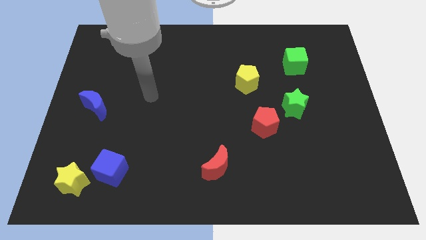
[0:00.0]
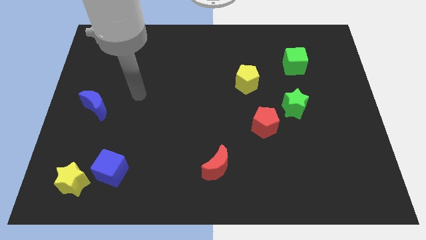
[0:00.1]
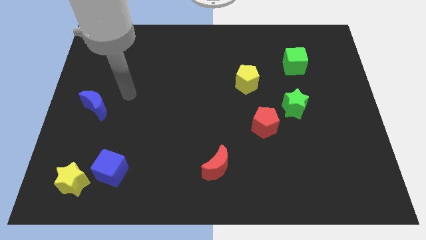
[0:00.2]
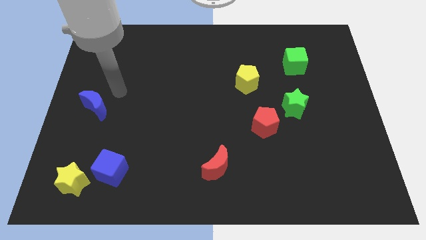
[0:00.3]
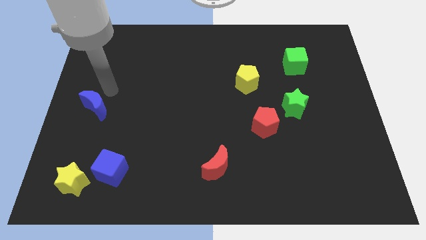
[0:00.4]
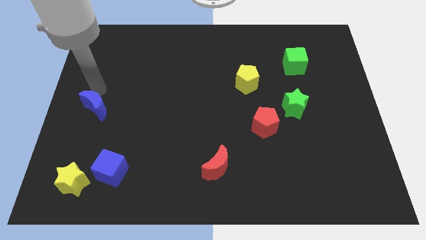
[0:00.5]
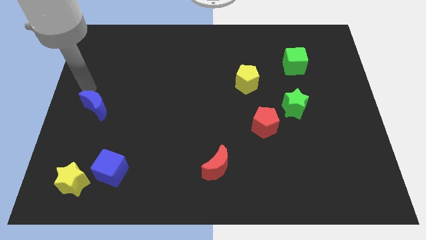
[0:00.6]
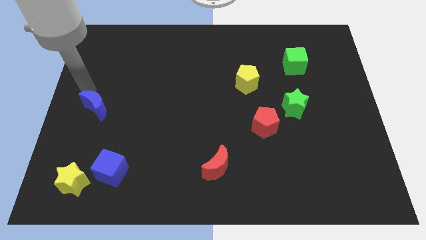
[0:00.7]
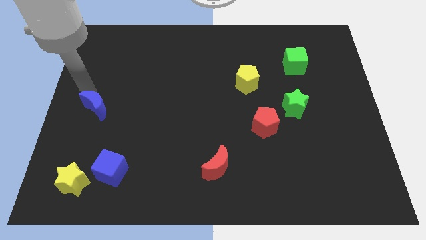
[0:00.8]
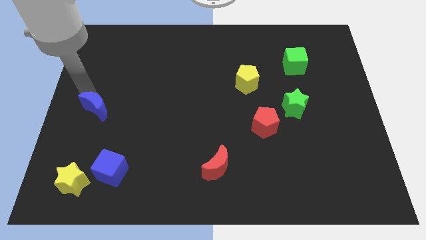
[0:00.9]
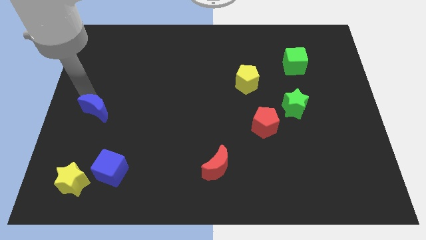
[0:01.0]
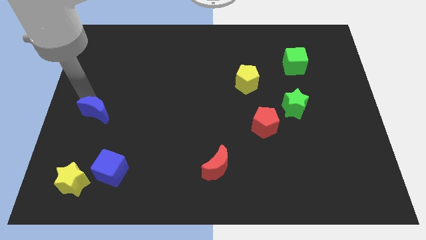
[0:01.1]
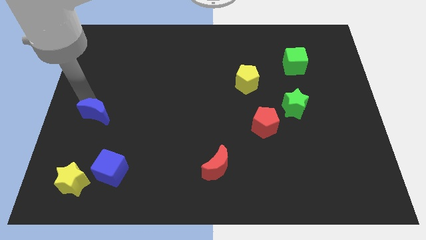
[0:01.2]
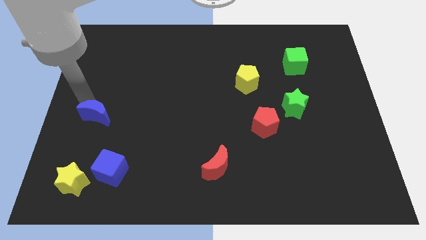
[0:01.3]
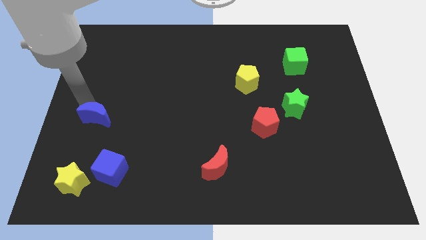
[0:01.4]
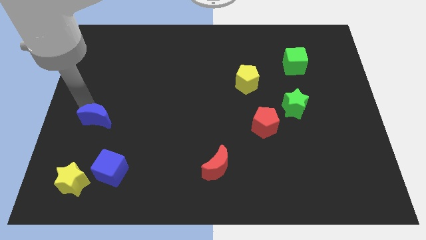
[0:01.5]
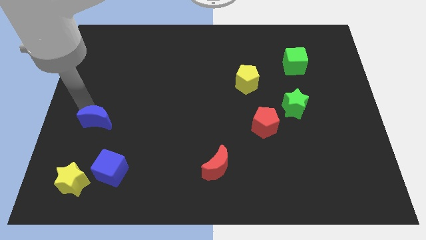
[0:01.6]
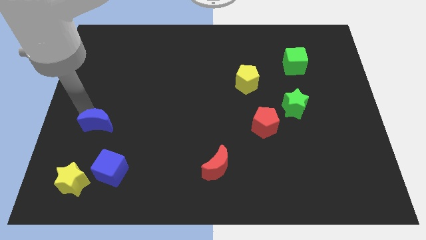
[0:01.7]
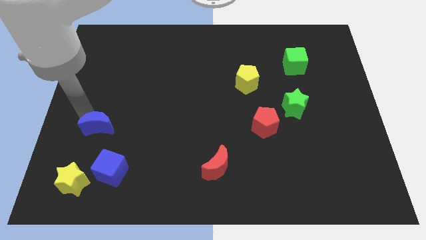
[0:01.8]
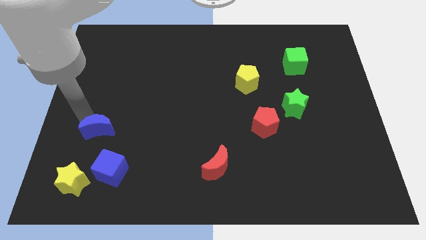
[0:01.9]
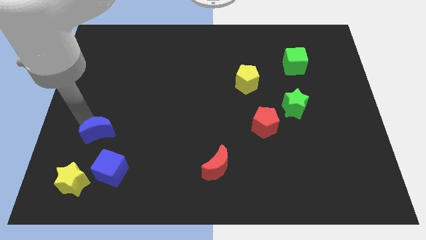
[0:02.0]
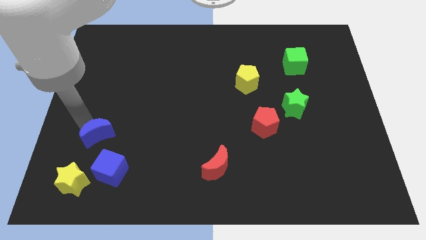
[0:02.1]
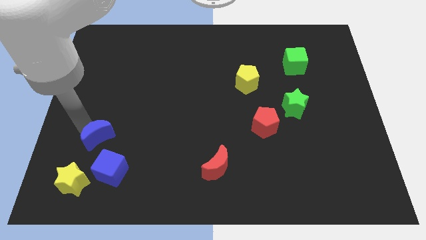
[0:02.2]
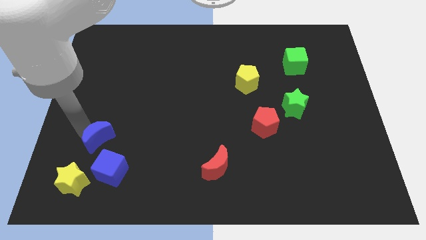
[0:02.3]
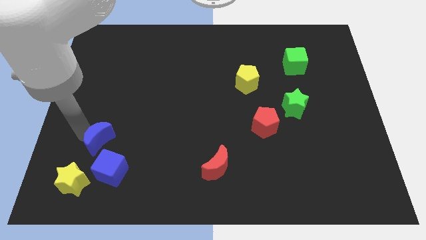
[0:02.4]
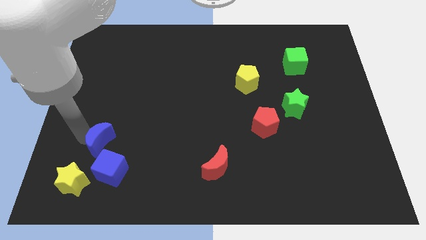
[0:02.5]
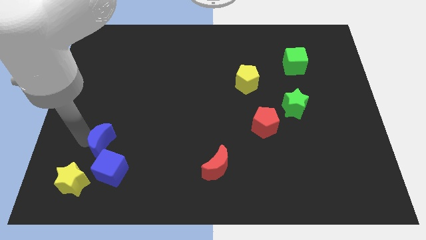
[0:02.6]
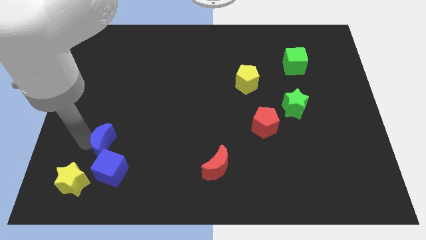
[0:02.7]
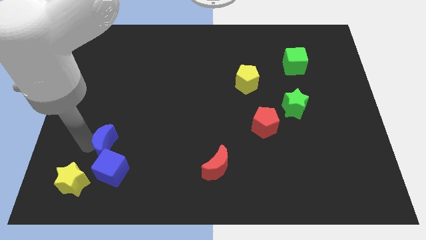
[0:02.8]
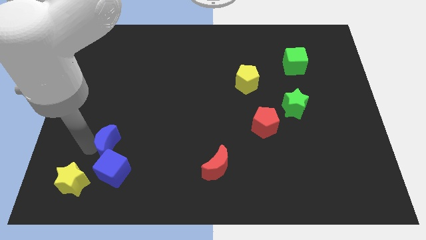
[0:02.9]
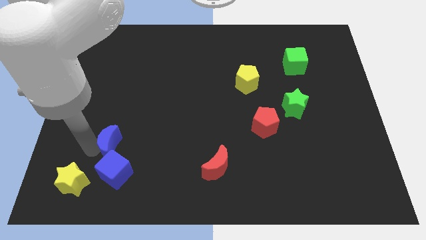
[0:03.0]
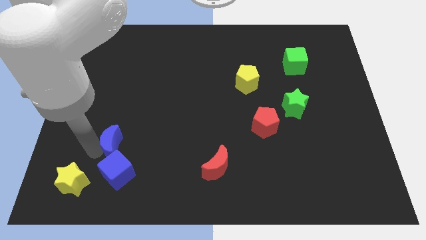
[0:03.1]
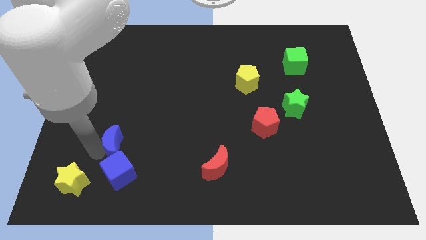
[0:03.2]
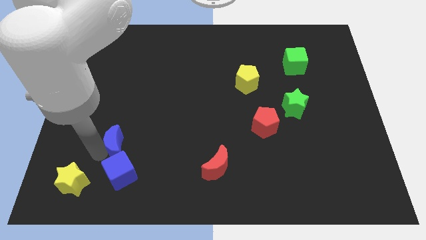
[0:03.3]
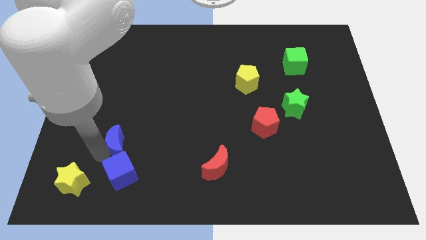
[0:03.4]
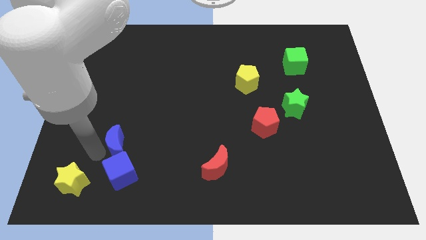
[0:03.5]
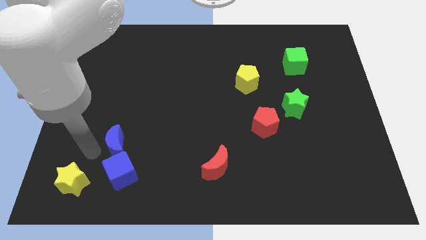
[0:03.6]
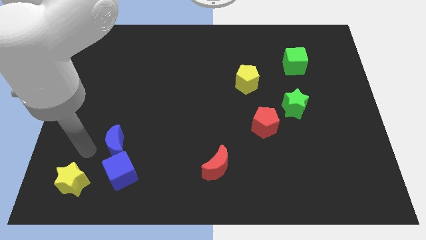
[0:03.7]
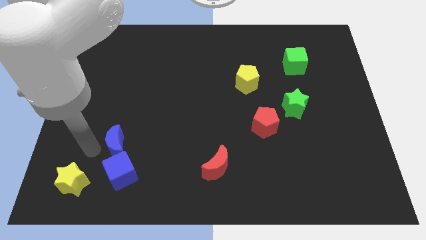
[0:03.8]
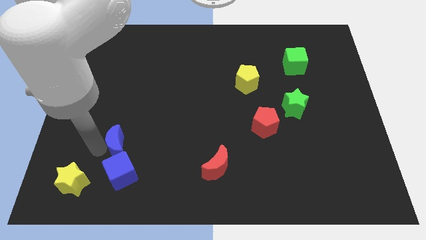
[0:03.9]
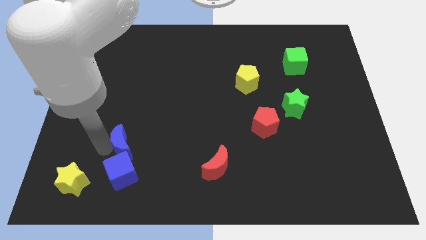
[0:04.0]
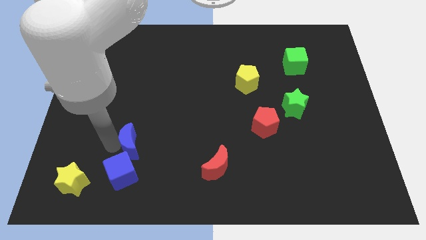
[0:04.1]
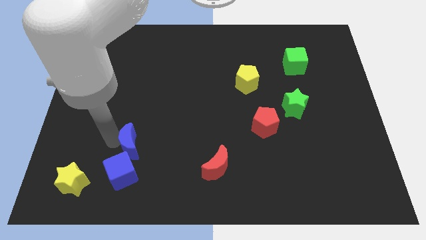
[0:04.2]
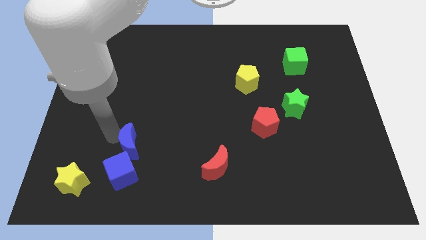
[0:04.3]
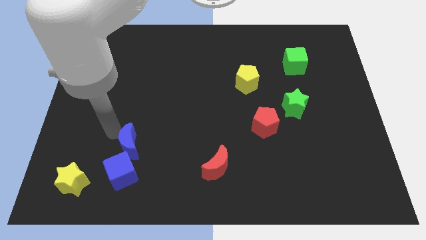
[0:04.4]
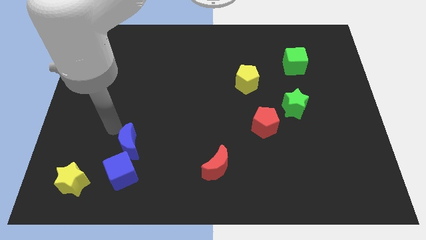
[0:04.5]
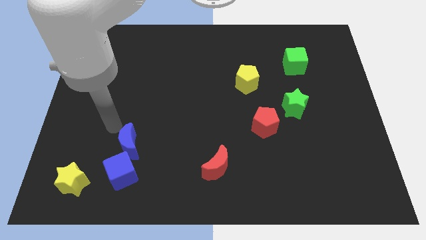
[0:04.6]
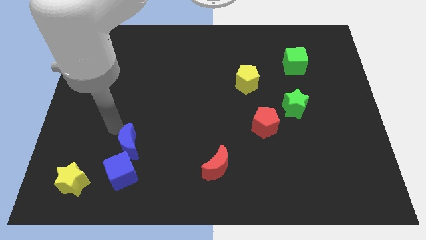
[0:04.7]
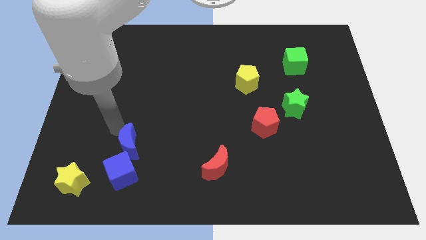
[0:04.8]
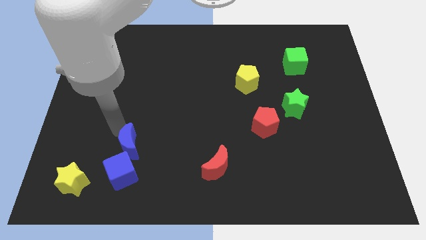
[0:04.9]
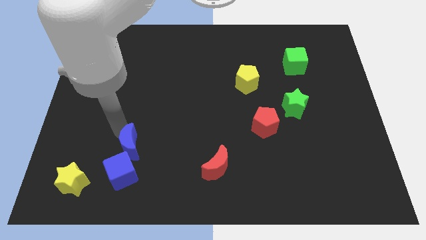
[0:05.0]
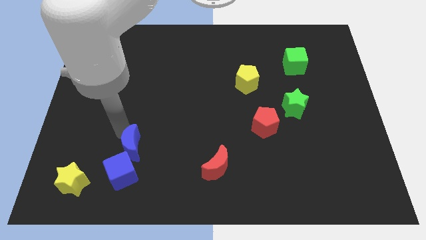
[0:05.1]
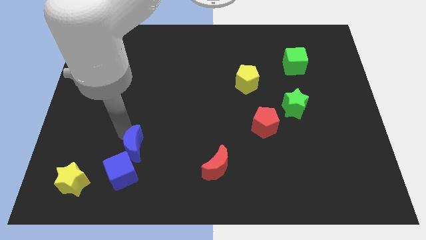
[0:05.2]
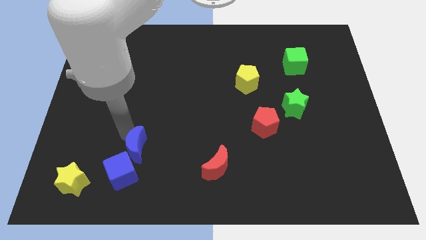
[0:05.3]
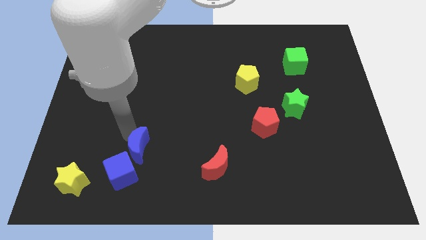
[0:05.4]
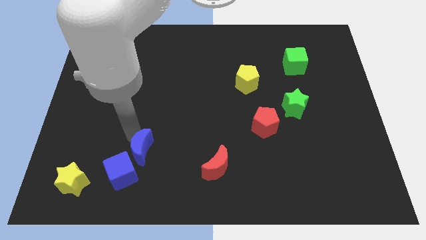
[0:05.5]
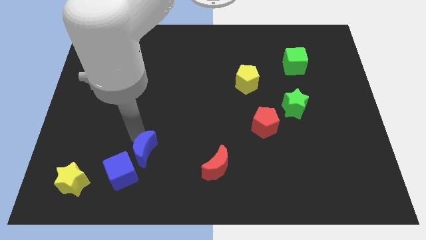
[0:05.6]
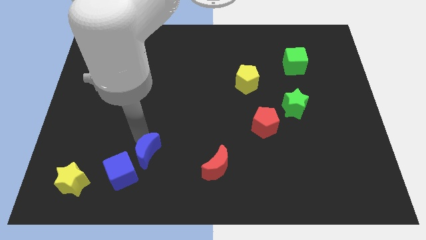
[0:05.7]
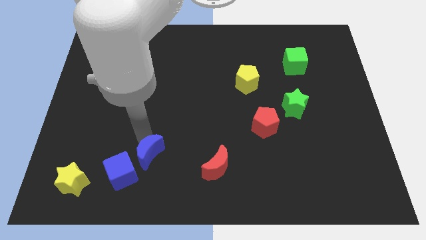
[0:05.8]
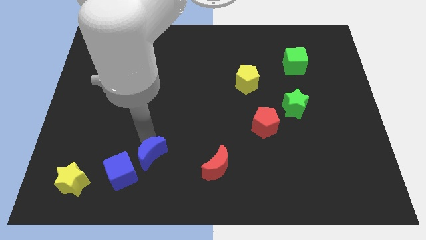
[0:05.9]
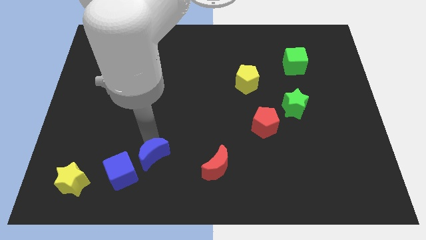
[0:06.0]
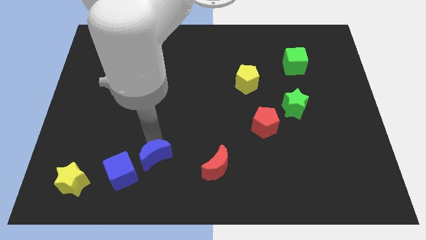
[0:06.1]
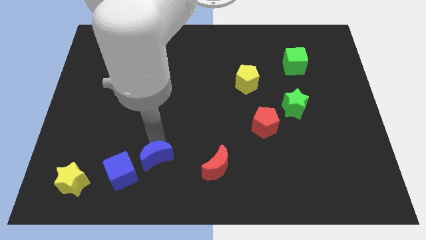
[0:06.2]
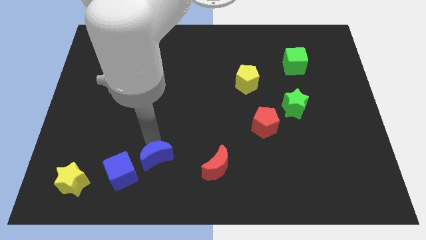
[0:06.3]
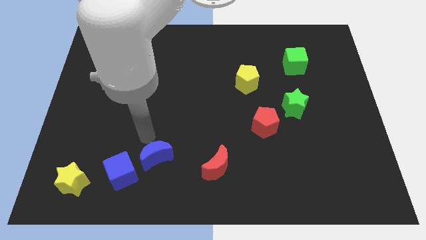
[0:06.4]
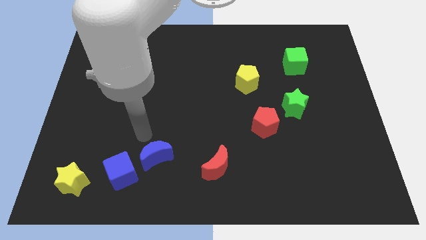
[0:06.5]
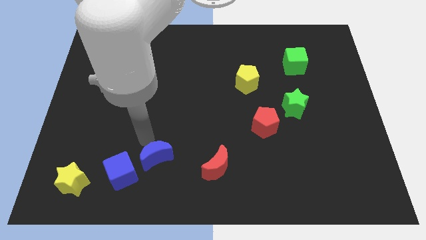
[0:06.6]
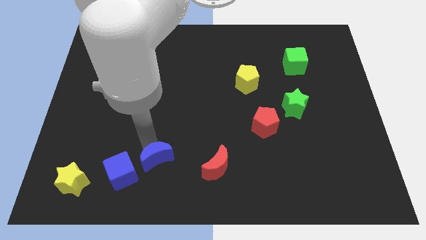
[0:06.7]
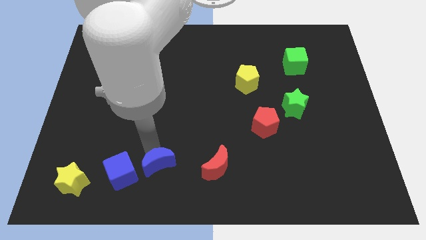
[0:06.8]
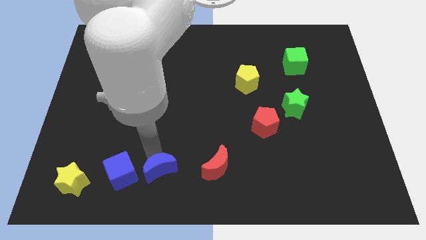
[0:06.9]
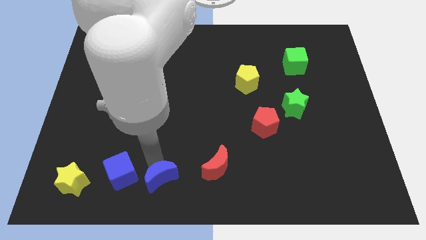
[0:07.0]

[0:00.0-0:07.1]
put the blue moon to the bottom side
